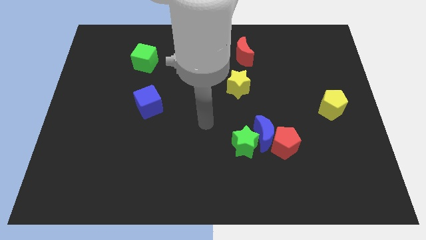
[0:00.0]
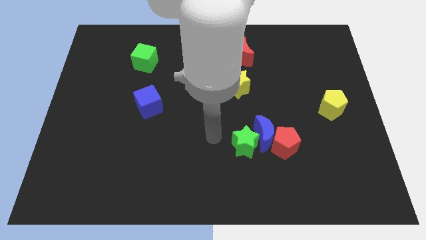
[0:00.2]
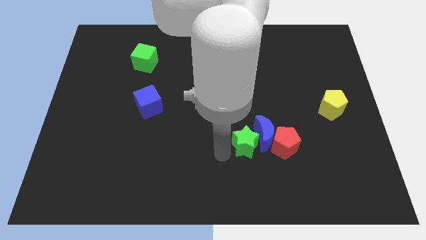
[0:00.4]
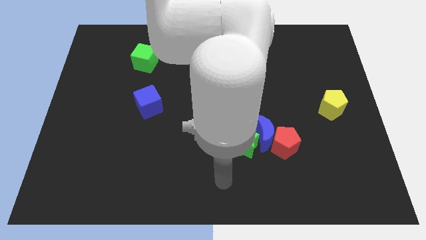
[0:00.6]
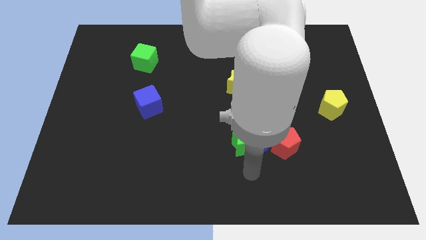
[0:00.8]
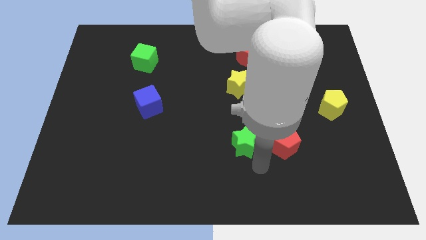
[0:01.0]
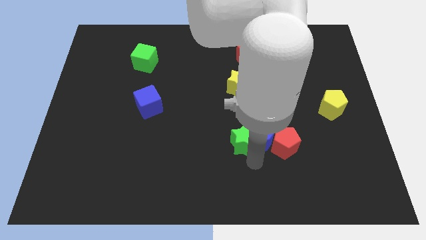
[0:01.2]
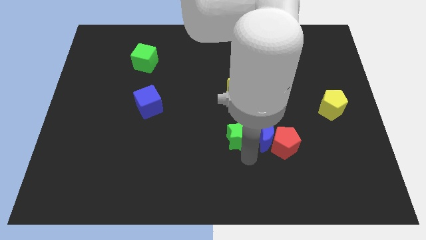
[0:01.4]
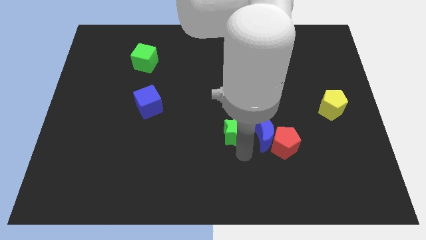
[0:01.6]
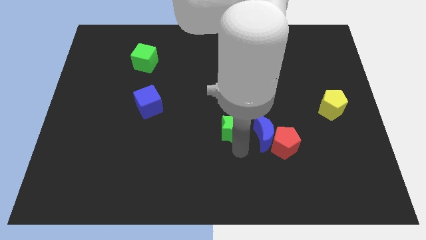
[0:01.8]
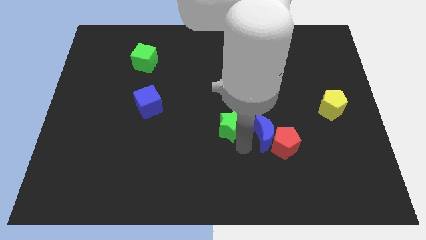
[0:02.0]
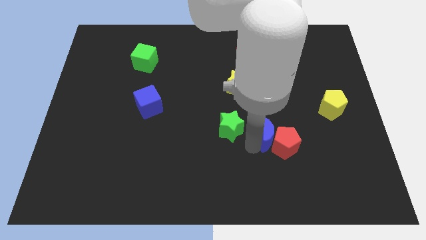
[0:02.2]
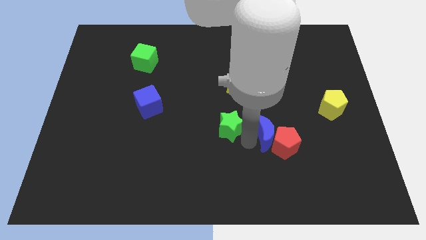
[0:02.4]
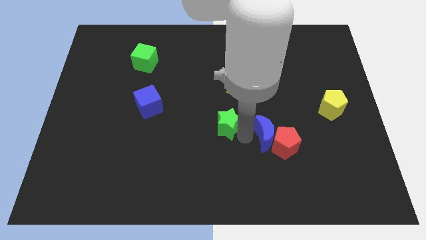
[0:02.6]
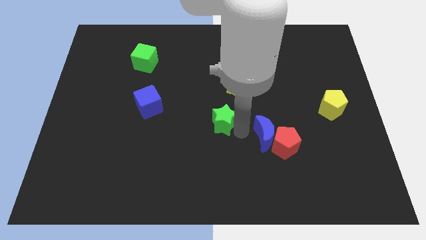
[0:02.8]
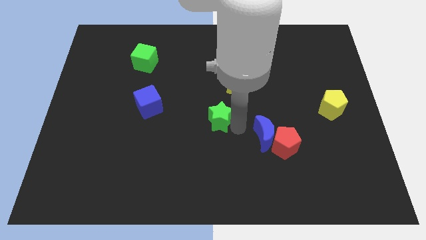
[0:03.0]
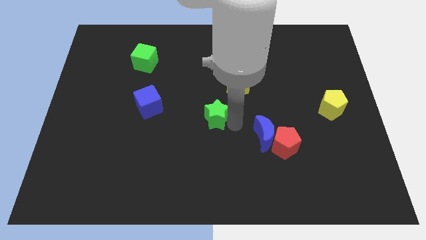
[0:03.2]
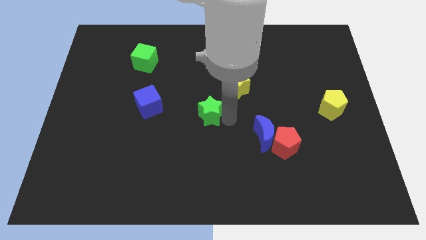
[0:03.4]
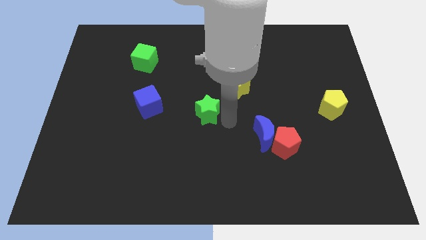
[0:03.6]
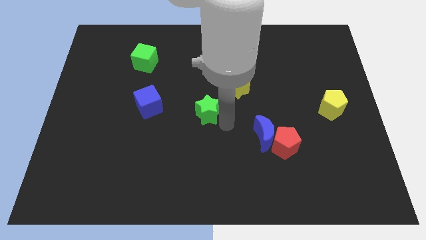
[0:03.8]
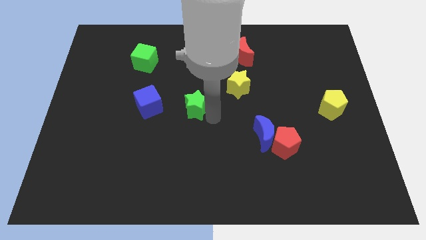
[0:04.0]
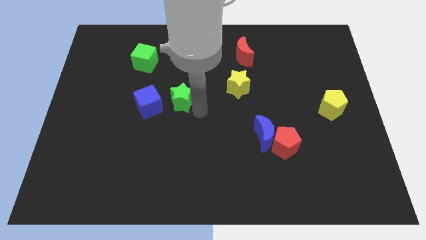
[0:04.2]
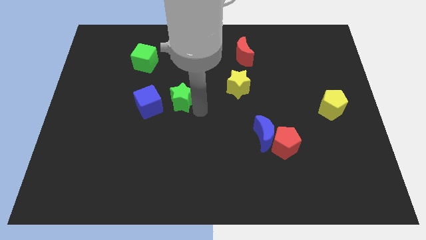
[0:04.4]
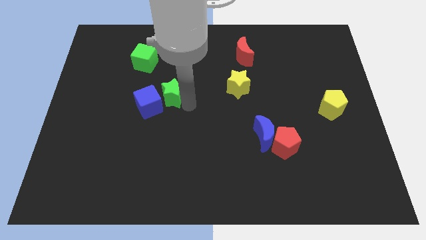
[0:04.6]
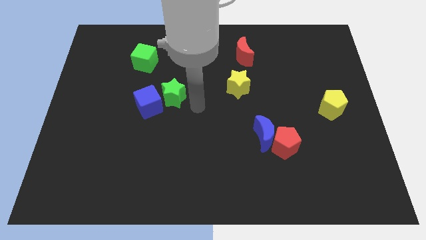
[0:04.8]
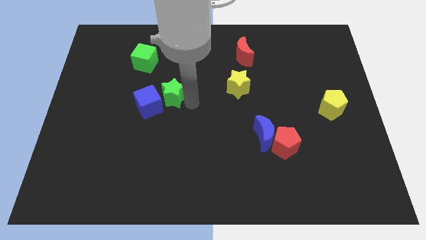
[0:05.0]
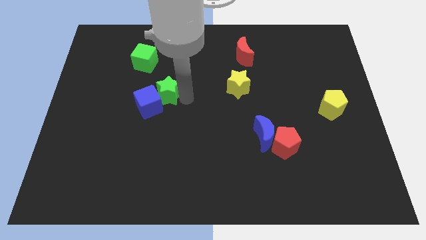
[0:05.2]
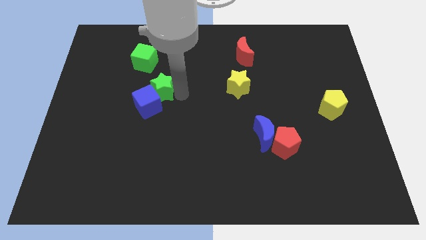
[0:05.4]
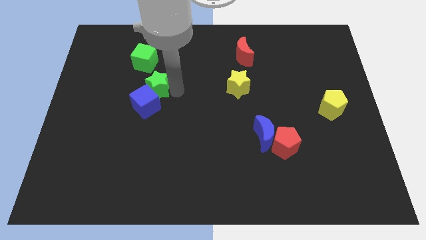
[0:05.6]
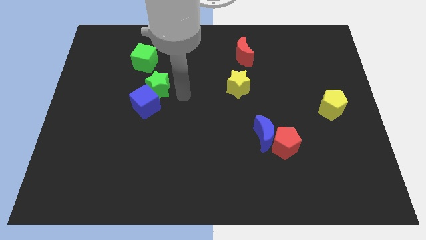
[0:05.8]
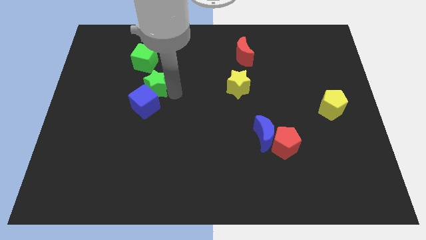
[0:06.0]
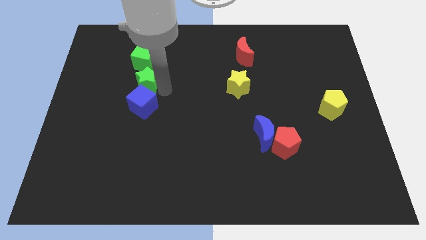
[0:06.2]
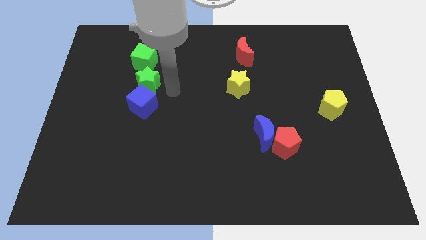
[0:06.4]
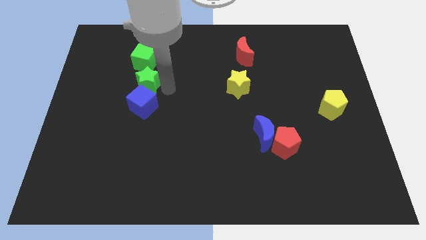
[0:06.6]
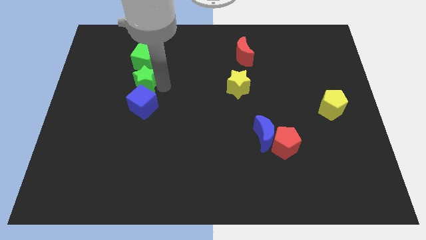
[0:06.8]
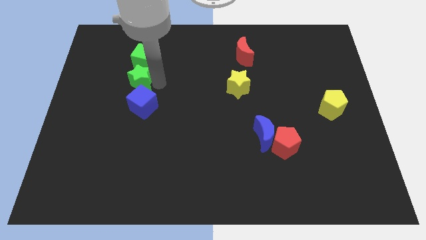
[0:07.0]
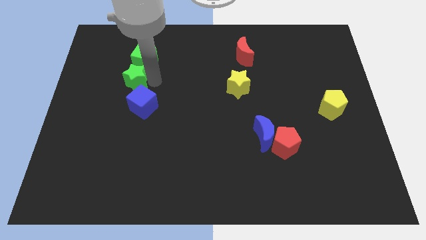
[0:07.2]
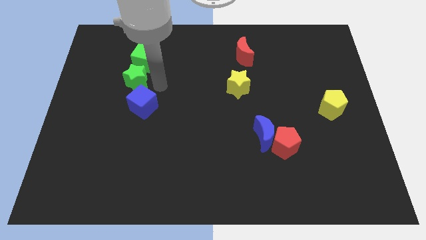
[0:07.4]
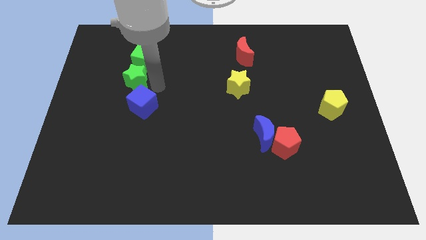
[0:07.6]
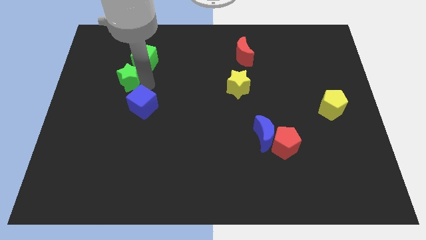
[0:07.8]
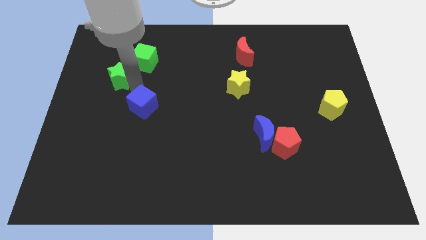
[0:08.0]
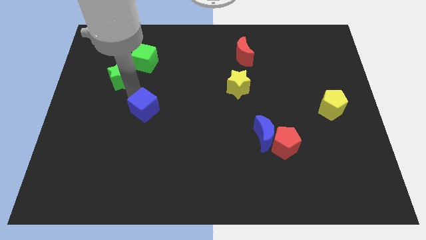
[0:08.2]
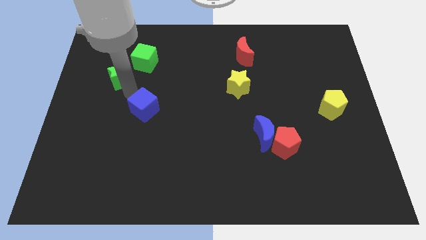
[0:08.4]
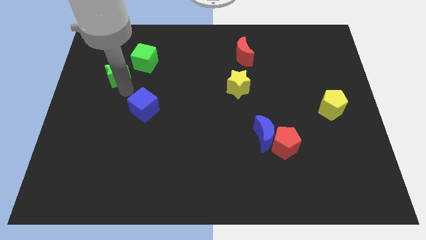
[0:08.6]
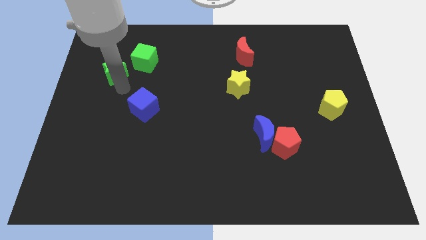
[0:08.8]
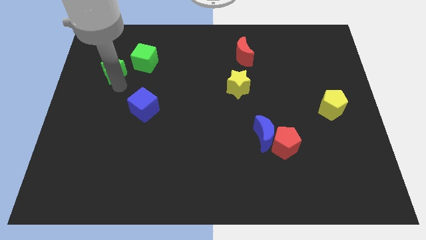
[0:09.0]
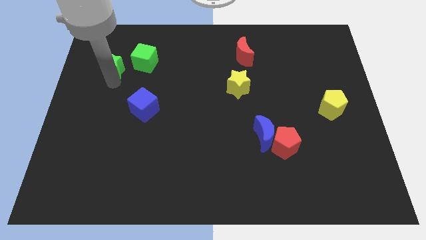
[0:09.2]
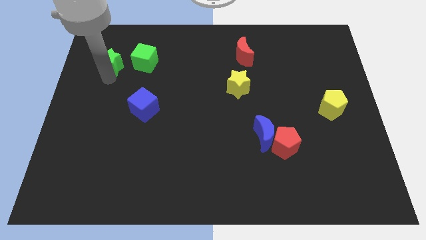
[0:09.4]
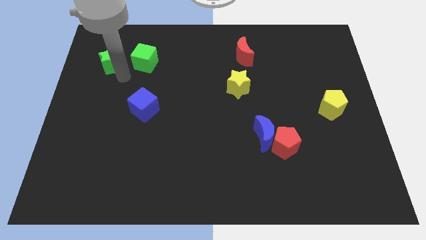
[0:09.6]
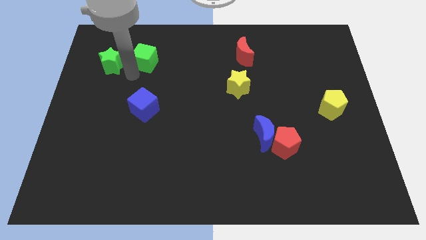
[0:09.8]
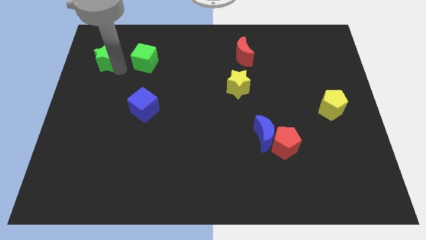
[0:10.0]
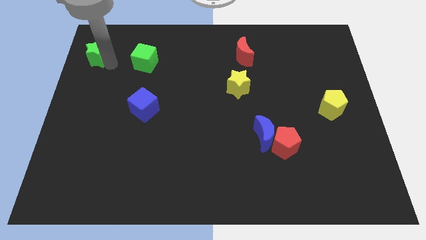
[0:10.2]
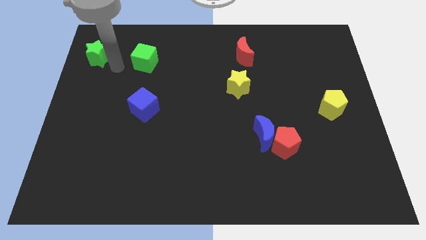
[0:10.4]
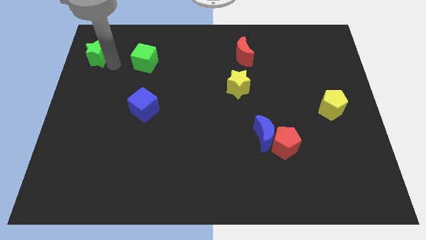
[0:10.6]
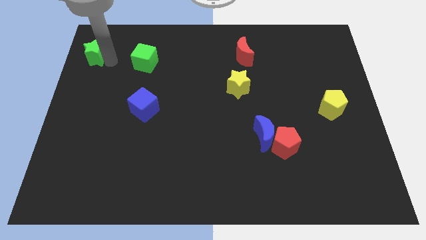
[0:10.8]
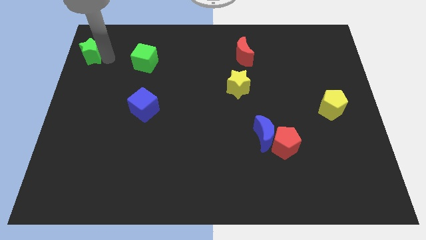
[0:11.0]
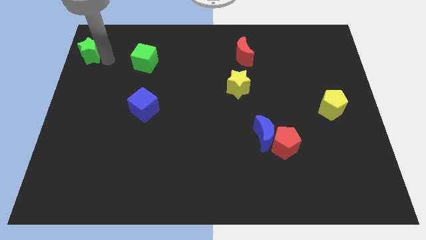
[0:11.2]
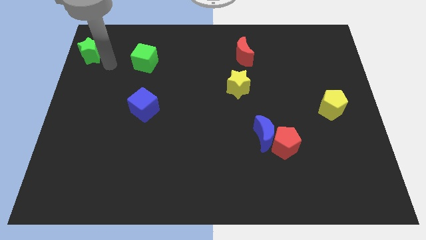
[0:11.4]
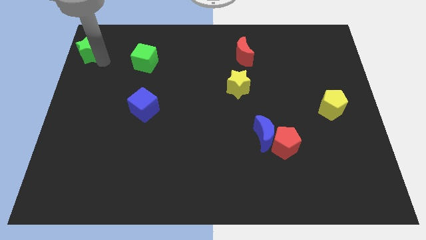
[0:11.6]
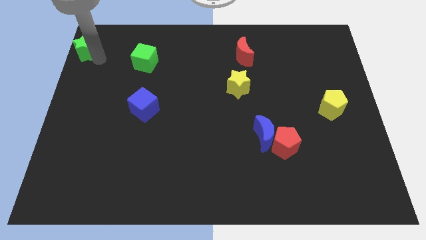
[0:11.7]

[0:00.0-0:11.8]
put the green star to the top left

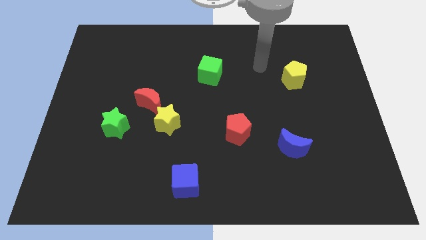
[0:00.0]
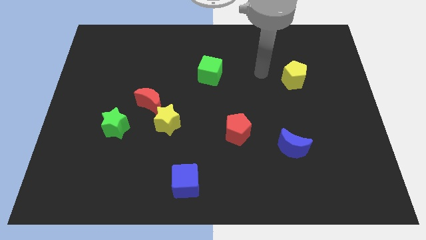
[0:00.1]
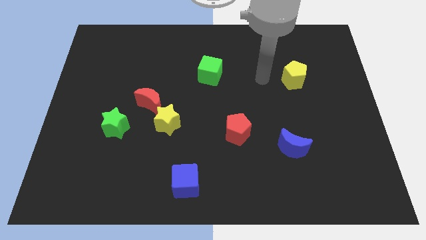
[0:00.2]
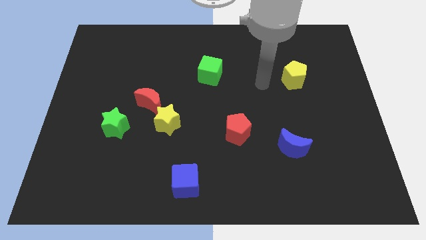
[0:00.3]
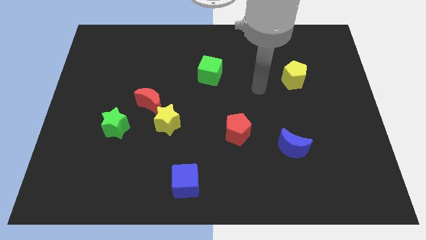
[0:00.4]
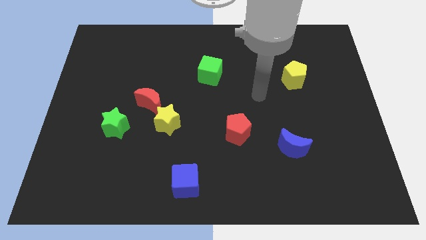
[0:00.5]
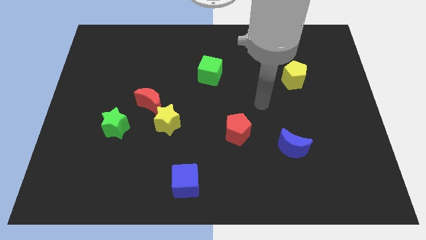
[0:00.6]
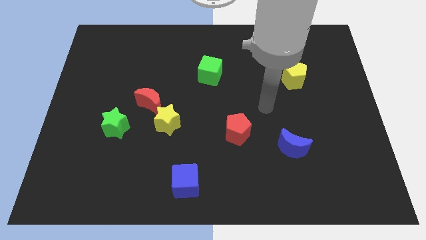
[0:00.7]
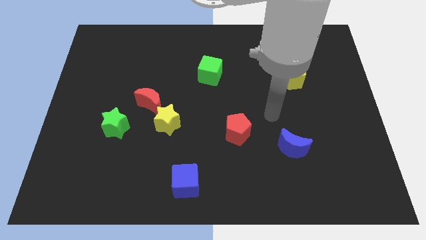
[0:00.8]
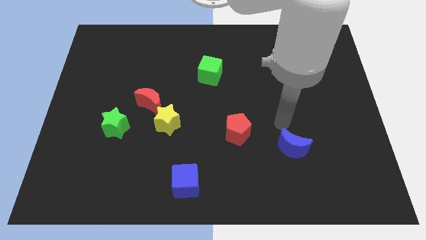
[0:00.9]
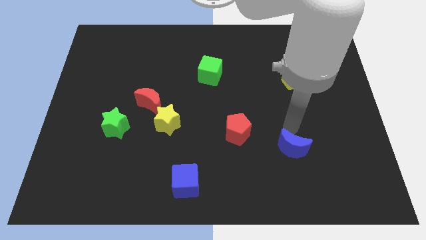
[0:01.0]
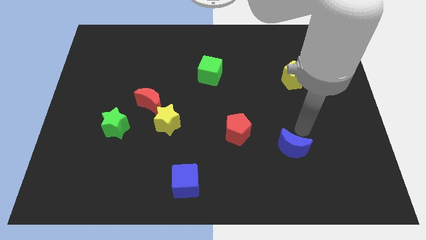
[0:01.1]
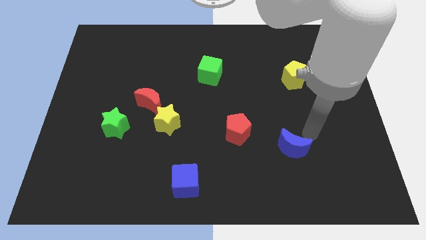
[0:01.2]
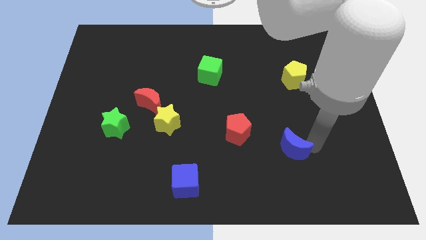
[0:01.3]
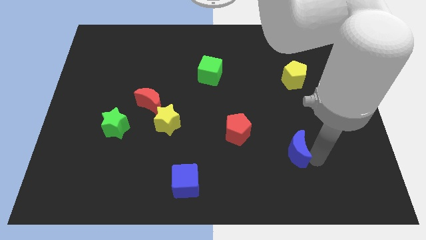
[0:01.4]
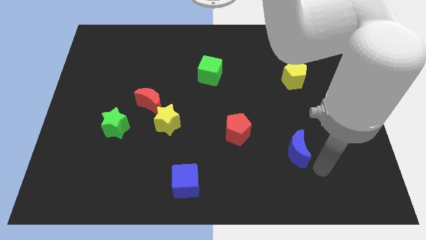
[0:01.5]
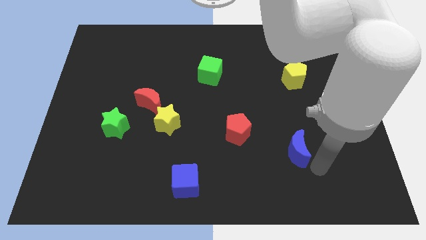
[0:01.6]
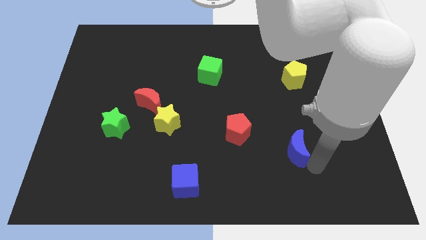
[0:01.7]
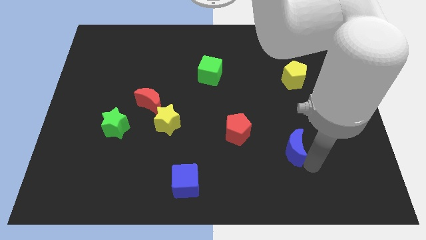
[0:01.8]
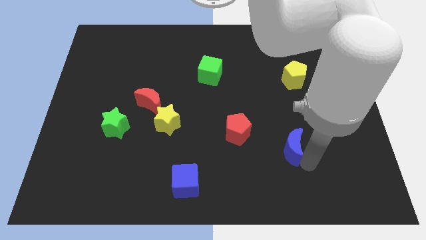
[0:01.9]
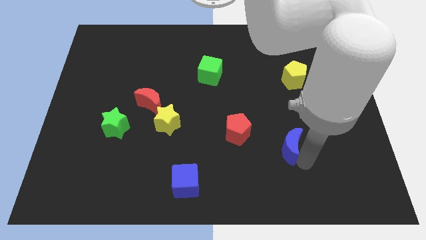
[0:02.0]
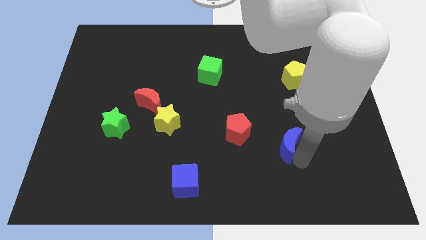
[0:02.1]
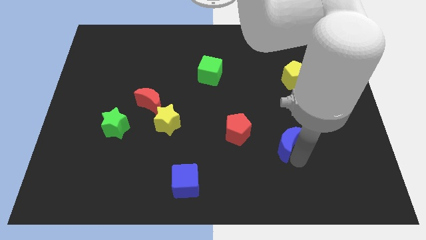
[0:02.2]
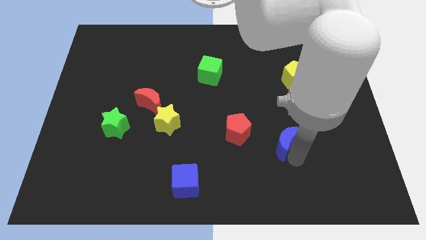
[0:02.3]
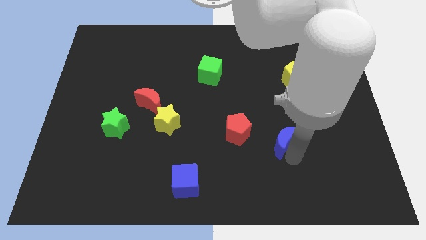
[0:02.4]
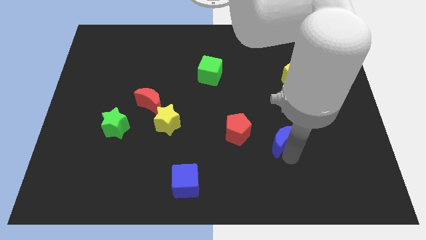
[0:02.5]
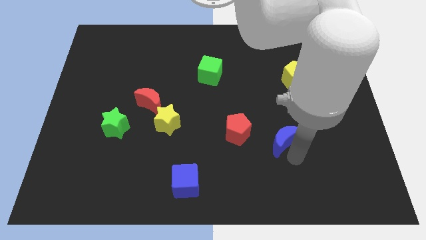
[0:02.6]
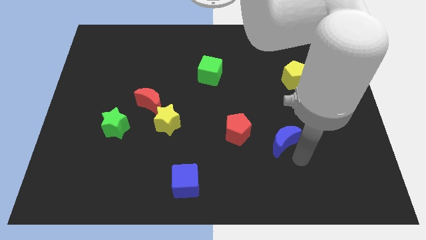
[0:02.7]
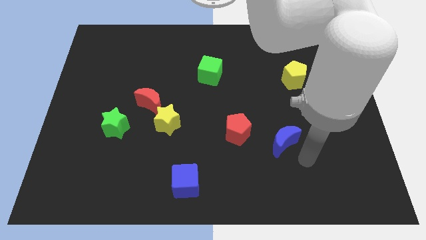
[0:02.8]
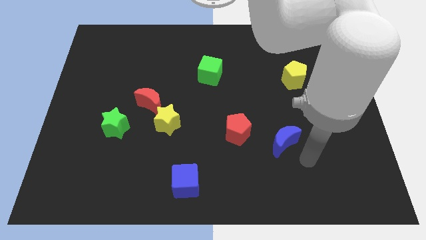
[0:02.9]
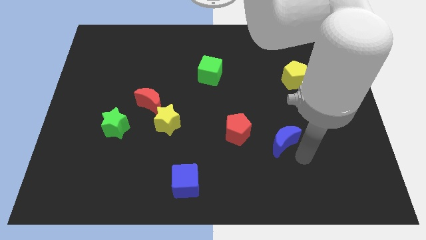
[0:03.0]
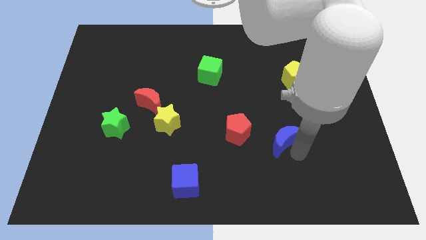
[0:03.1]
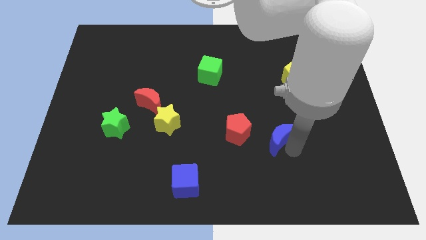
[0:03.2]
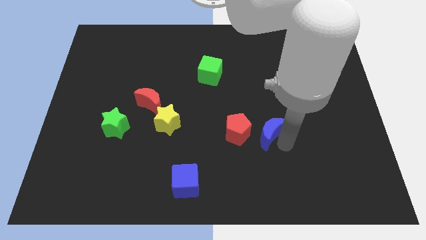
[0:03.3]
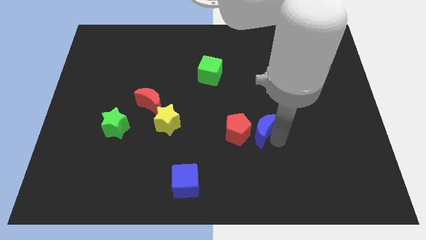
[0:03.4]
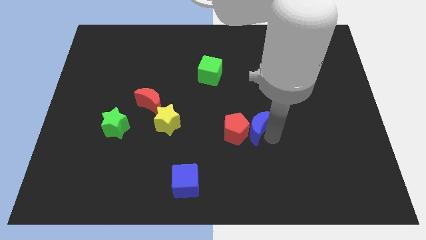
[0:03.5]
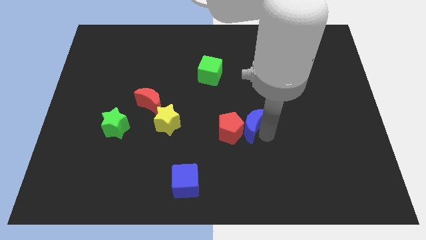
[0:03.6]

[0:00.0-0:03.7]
push the blue moon to the center
